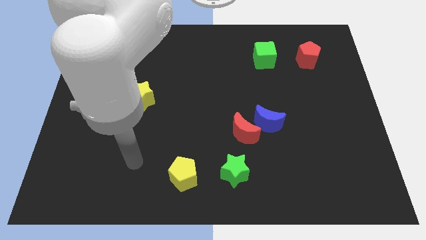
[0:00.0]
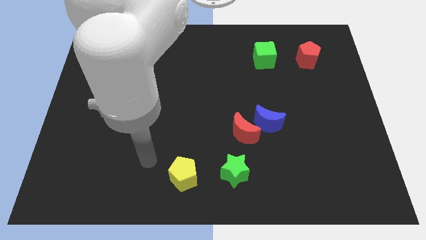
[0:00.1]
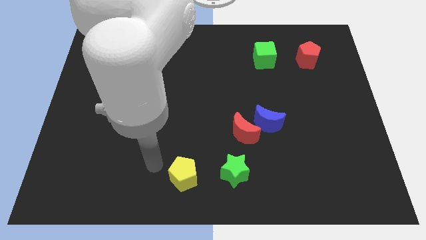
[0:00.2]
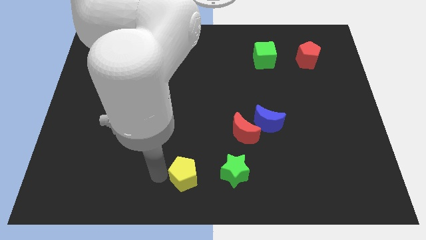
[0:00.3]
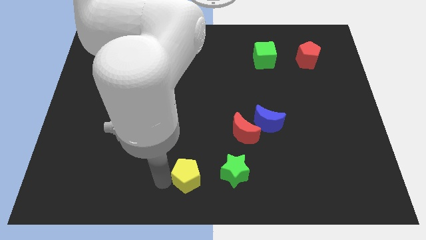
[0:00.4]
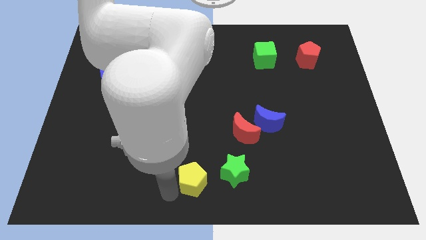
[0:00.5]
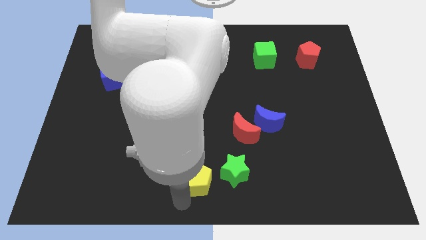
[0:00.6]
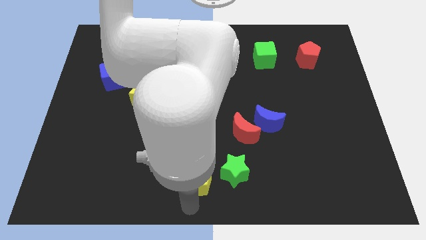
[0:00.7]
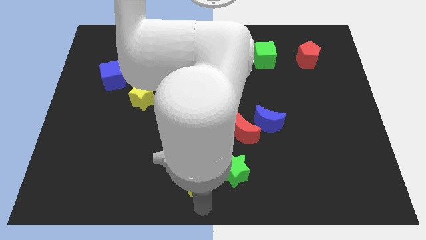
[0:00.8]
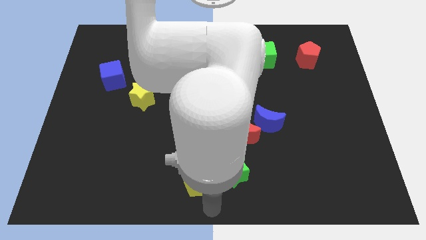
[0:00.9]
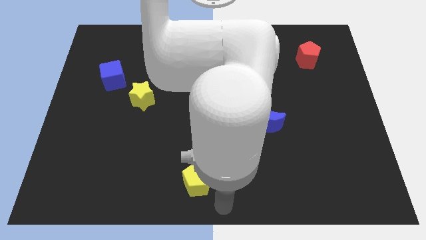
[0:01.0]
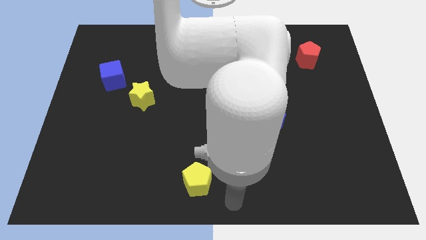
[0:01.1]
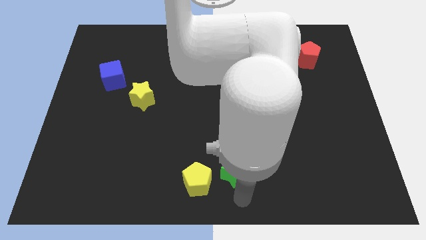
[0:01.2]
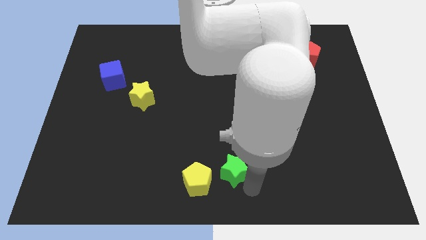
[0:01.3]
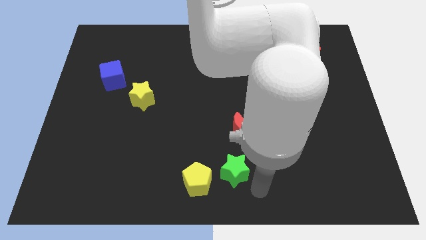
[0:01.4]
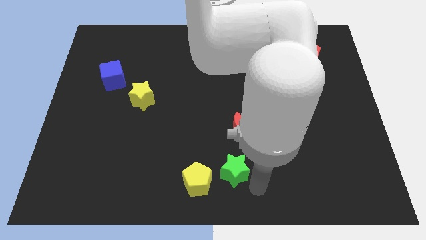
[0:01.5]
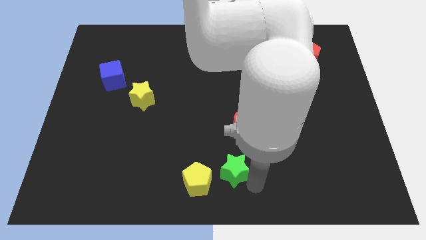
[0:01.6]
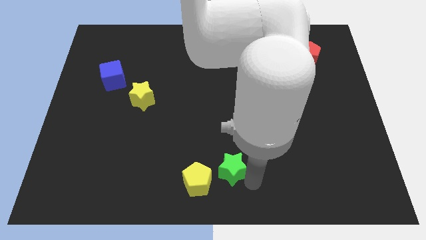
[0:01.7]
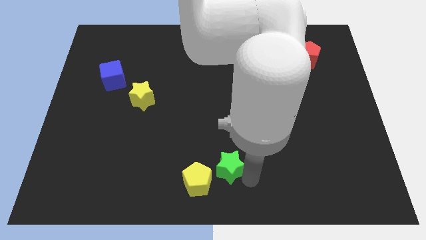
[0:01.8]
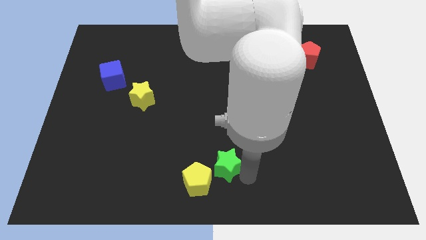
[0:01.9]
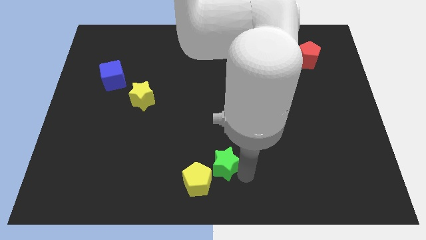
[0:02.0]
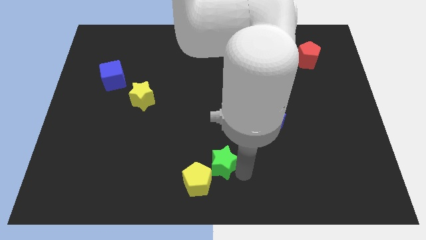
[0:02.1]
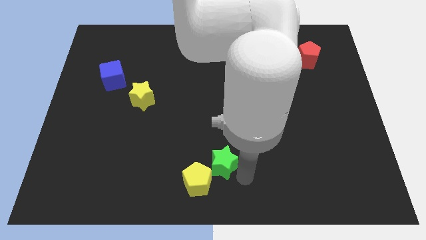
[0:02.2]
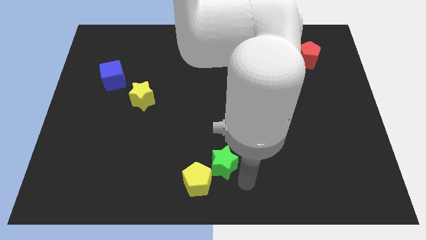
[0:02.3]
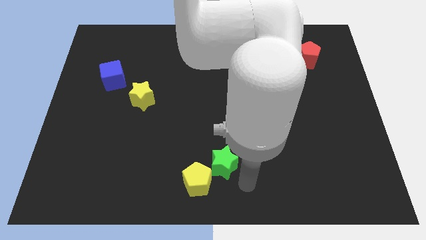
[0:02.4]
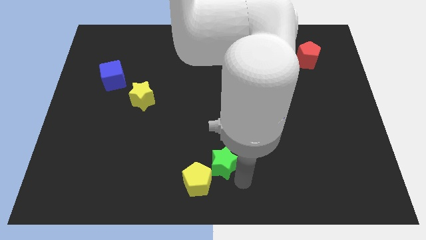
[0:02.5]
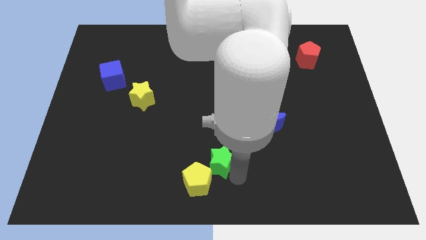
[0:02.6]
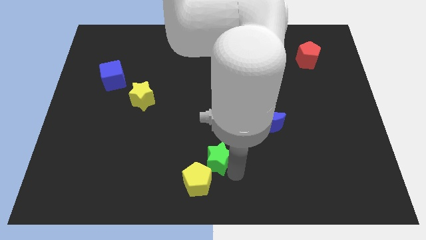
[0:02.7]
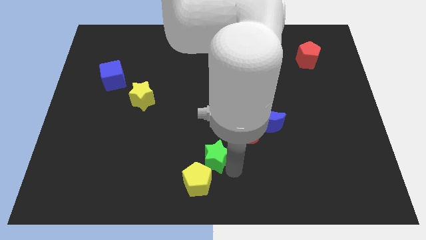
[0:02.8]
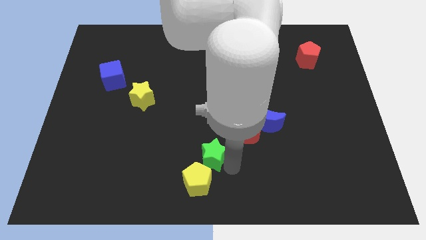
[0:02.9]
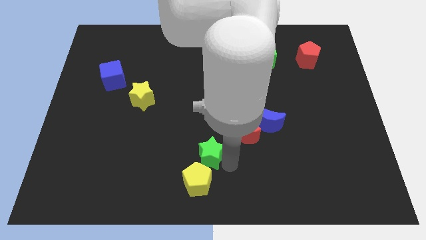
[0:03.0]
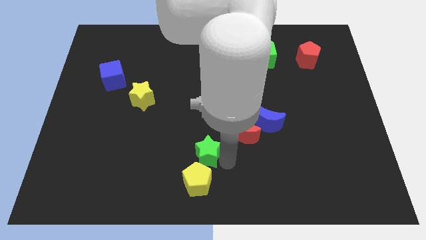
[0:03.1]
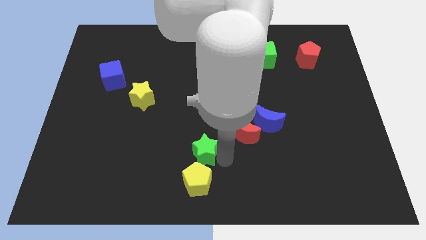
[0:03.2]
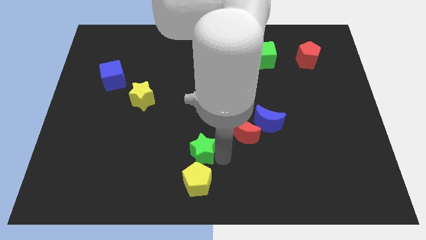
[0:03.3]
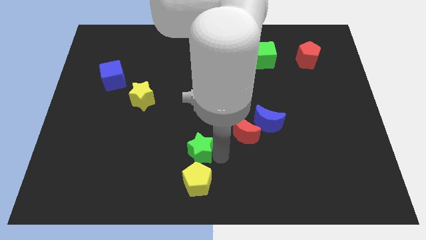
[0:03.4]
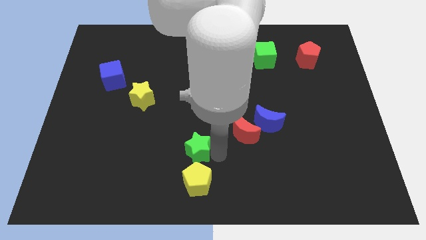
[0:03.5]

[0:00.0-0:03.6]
slightly push the green star to the left

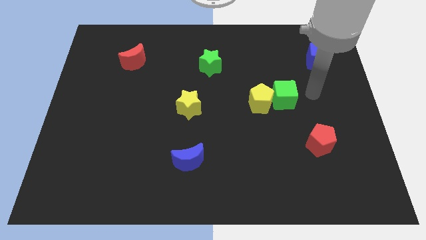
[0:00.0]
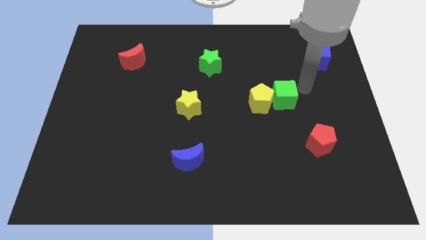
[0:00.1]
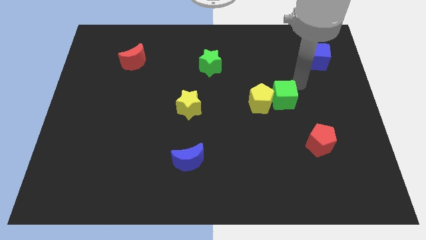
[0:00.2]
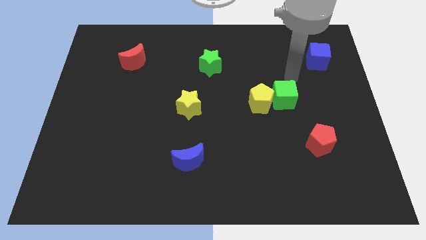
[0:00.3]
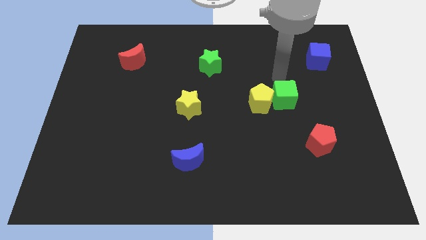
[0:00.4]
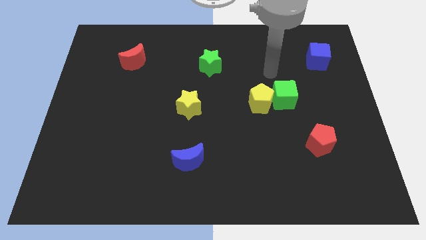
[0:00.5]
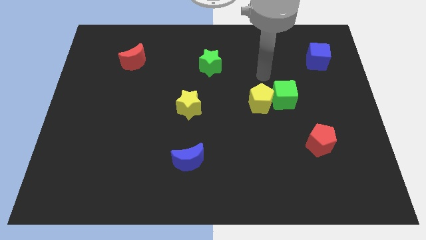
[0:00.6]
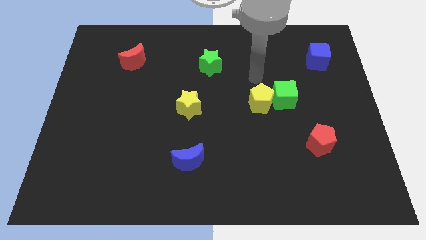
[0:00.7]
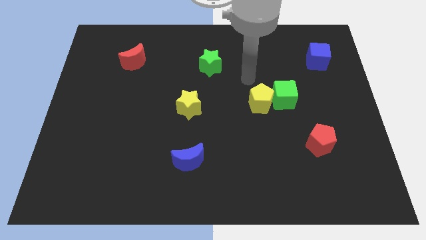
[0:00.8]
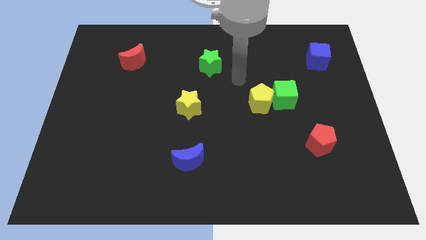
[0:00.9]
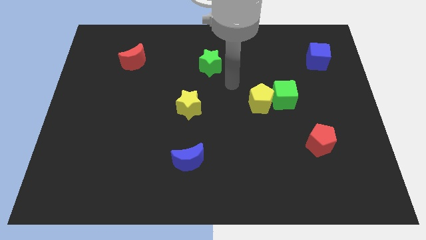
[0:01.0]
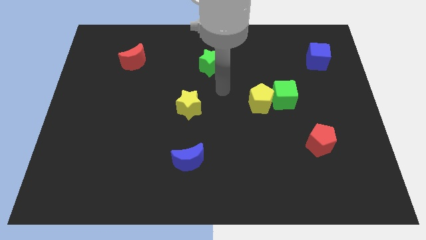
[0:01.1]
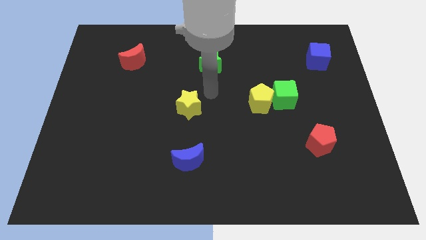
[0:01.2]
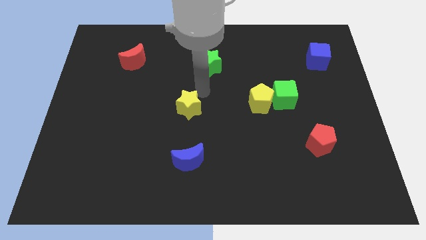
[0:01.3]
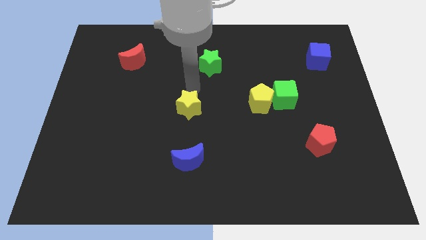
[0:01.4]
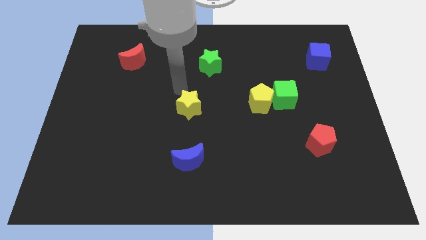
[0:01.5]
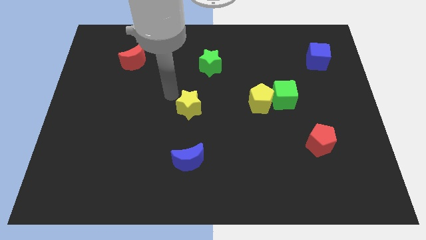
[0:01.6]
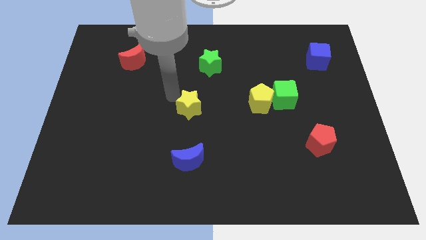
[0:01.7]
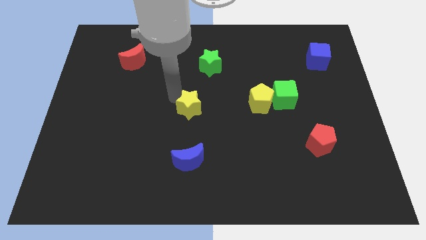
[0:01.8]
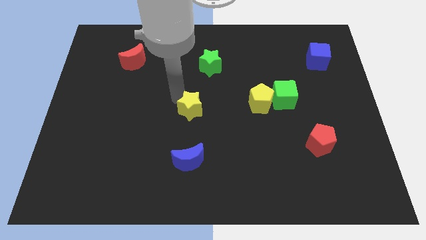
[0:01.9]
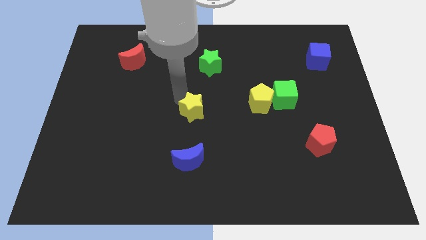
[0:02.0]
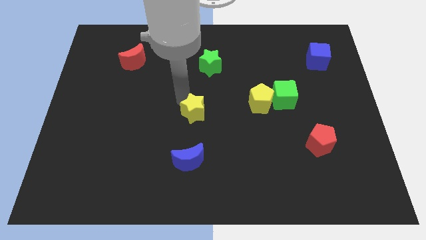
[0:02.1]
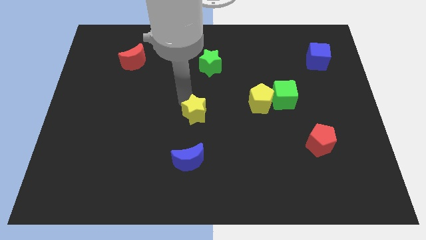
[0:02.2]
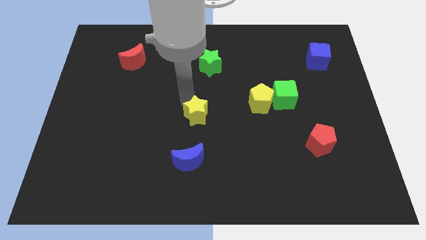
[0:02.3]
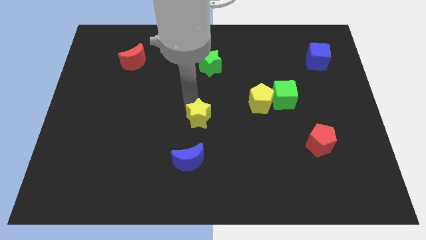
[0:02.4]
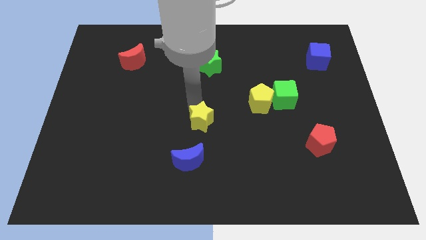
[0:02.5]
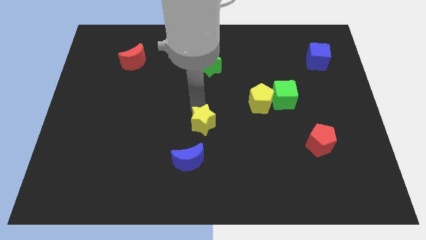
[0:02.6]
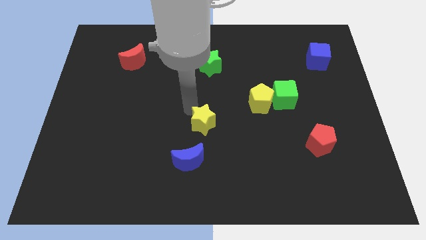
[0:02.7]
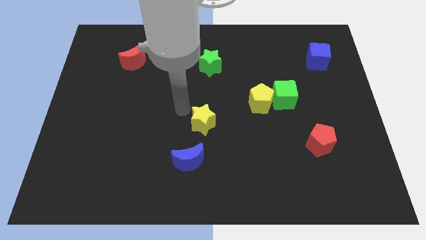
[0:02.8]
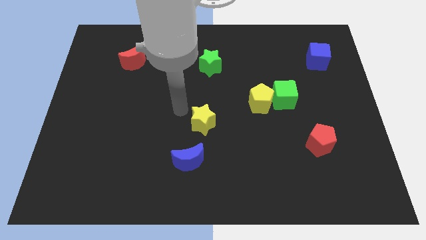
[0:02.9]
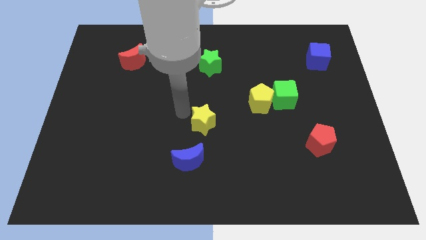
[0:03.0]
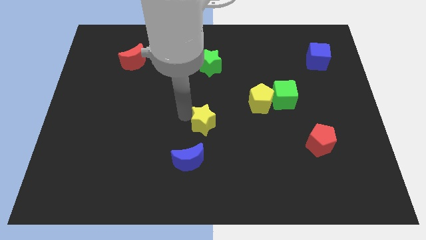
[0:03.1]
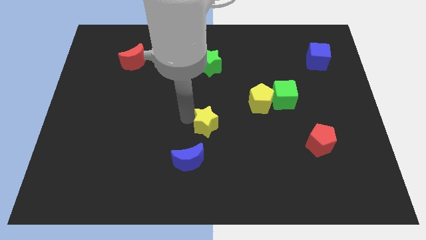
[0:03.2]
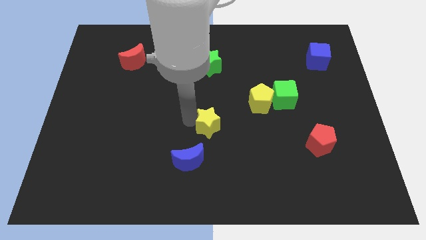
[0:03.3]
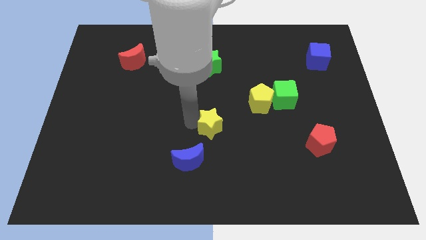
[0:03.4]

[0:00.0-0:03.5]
slide the yellow star diagonally down and to the right slightly

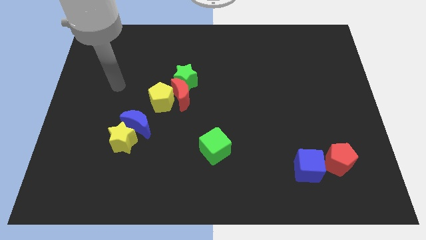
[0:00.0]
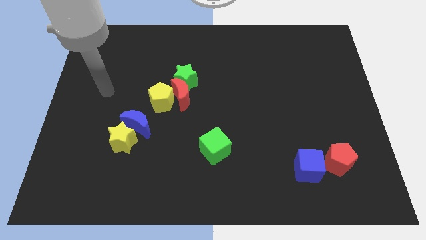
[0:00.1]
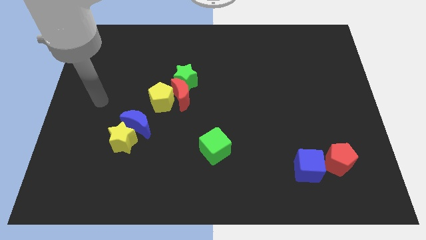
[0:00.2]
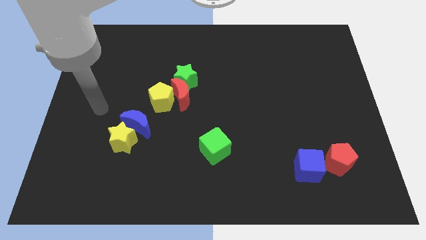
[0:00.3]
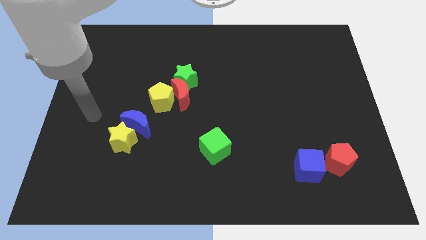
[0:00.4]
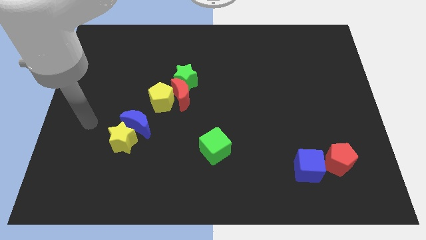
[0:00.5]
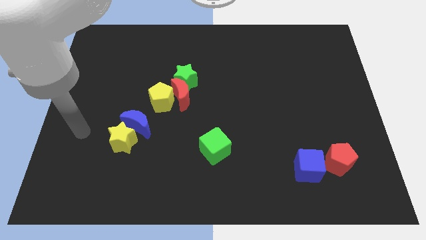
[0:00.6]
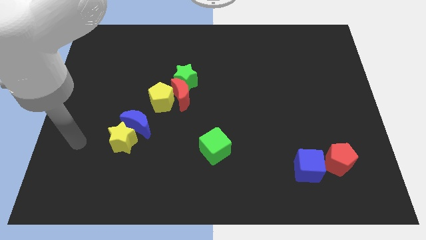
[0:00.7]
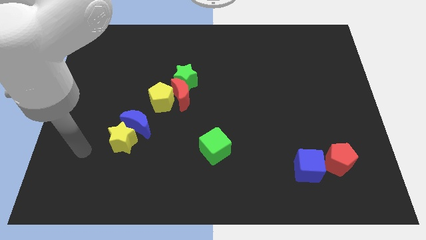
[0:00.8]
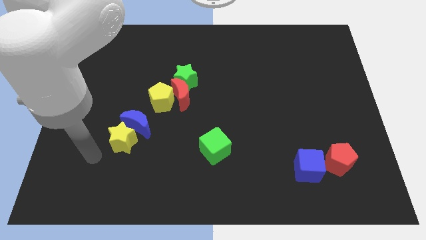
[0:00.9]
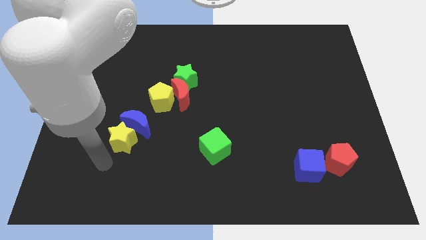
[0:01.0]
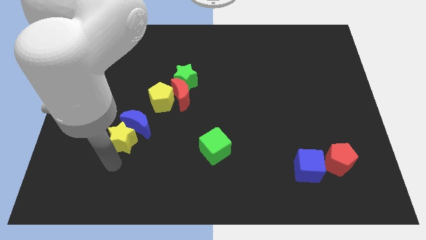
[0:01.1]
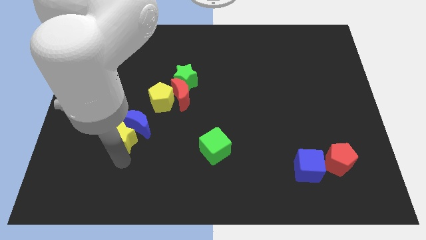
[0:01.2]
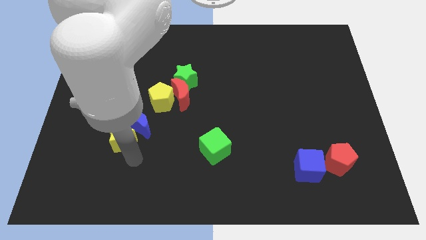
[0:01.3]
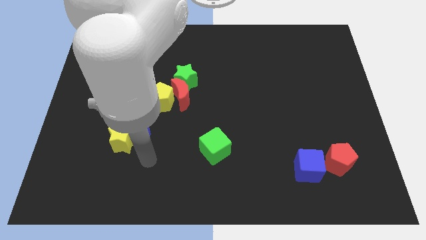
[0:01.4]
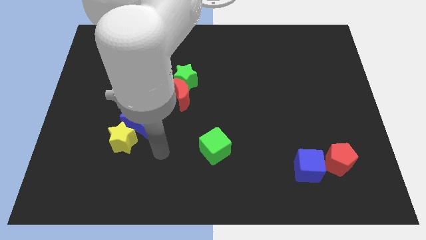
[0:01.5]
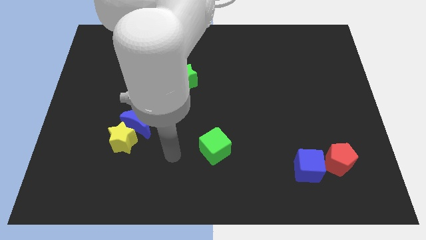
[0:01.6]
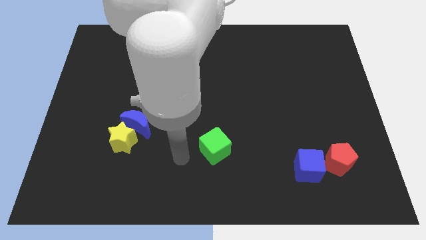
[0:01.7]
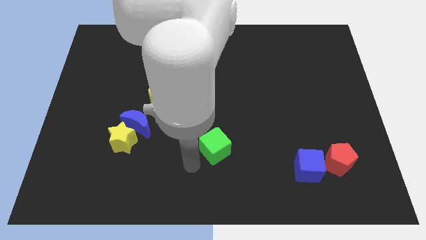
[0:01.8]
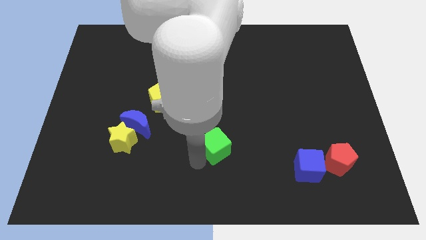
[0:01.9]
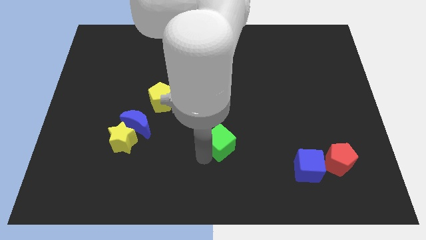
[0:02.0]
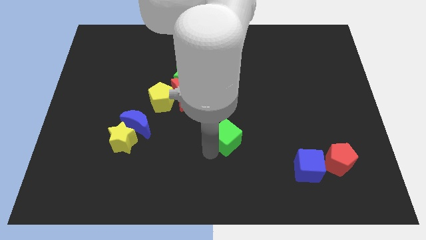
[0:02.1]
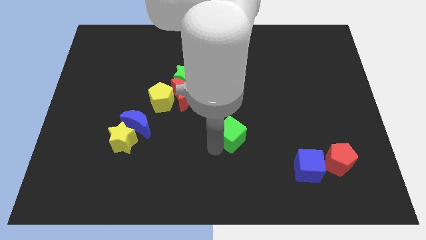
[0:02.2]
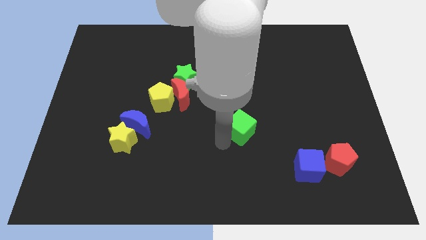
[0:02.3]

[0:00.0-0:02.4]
move the green cube up and to the right diagonally somewhat
